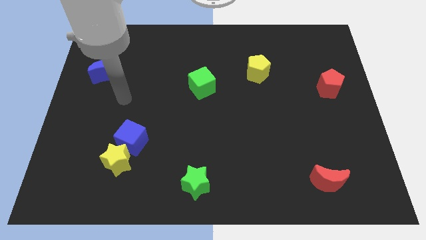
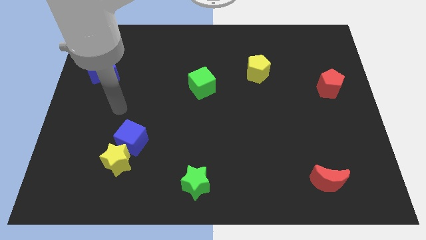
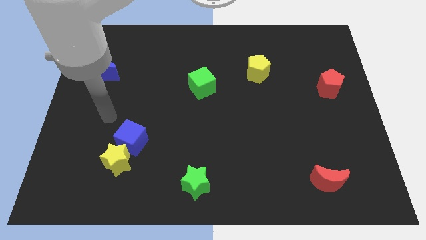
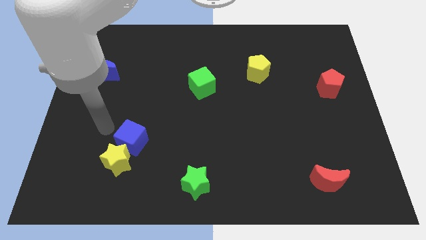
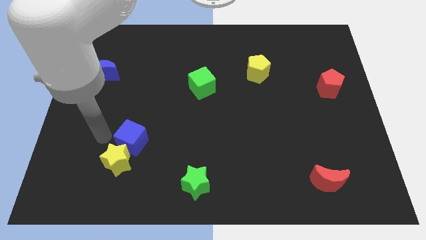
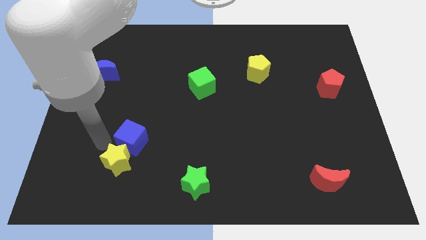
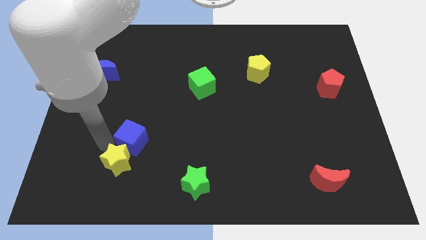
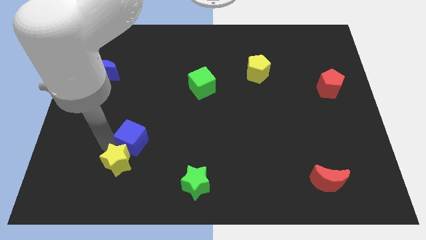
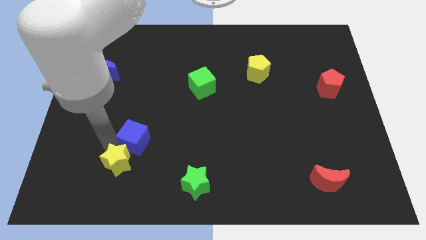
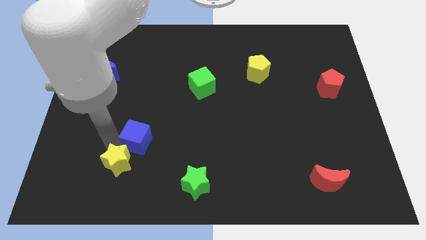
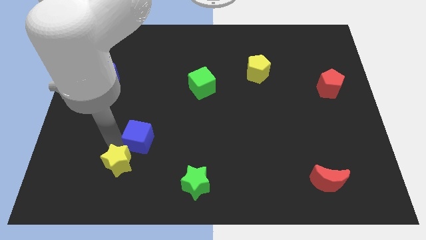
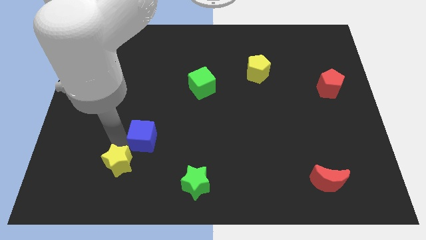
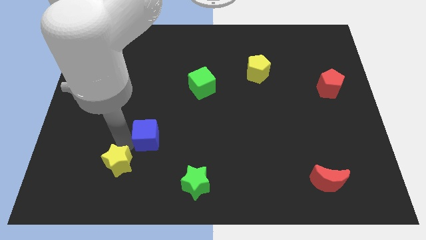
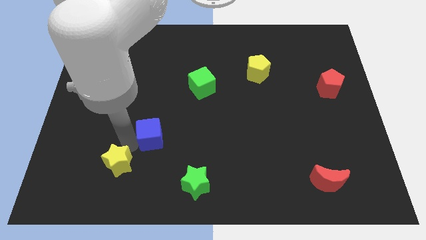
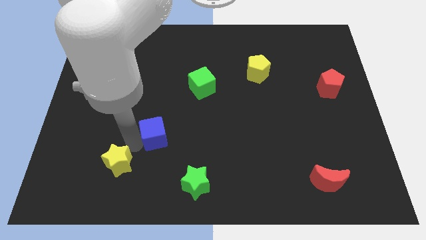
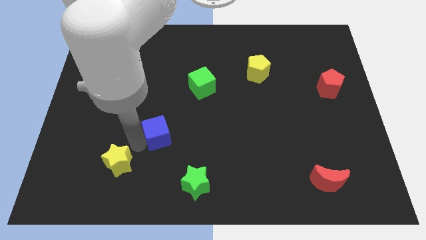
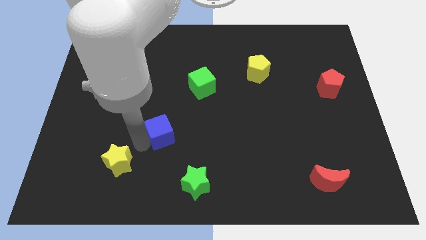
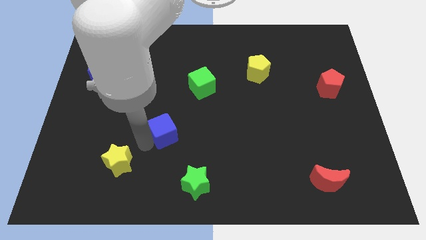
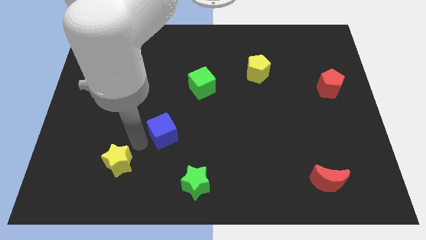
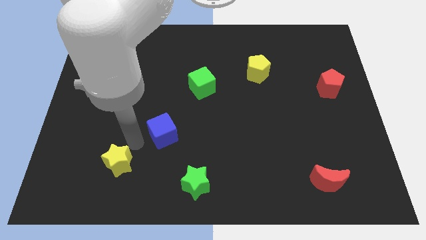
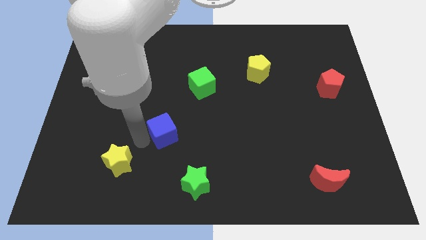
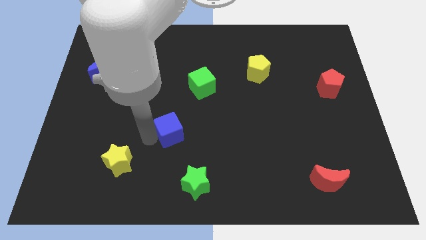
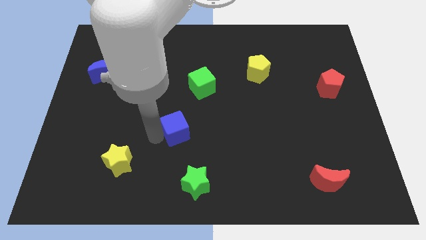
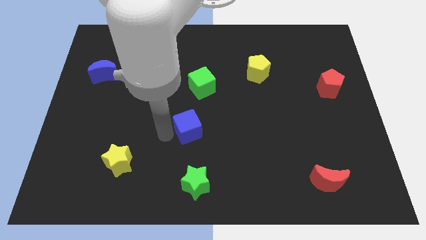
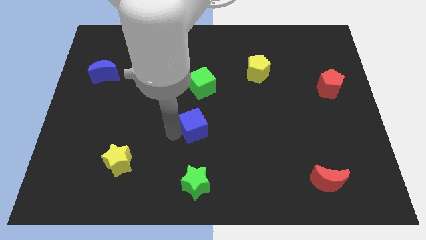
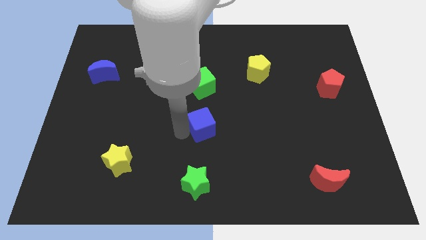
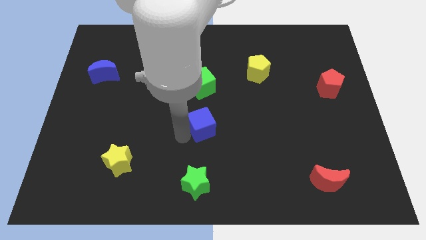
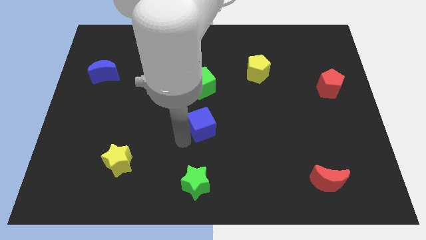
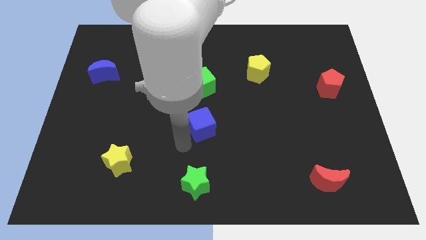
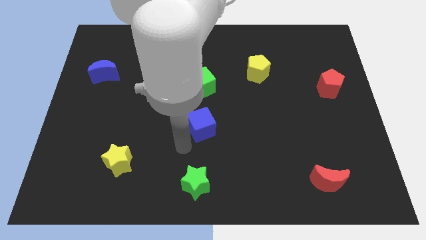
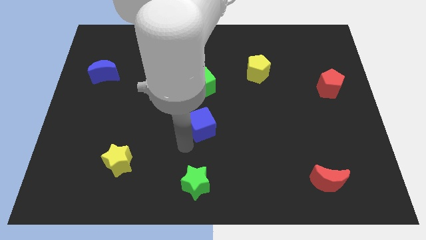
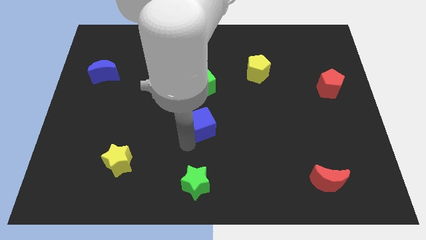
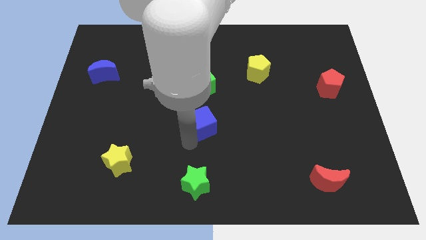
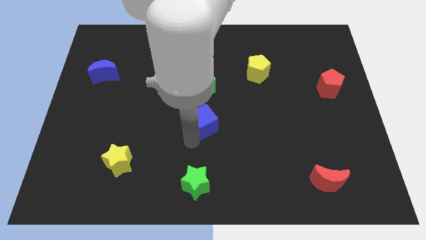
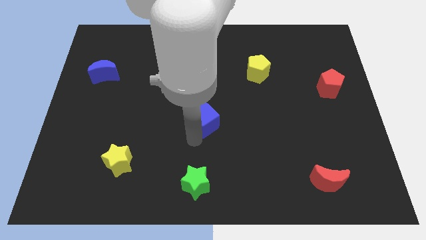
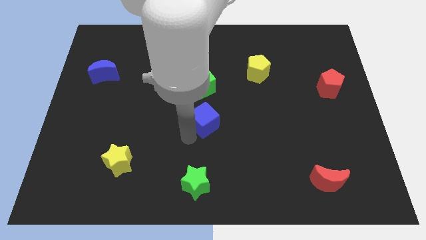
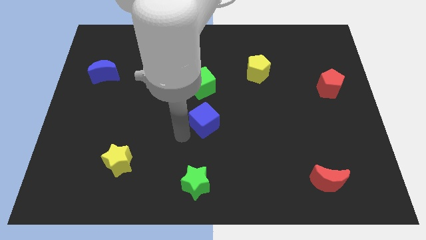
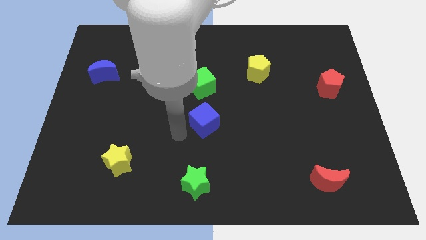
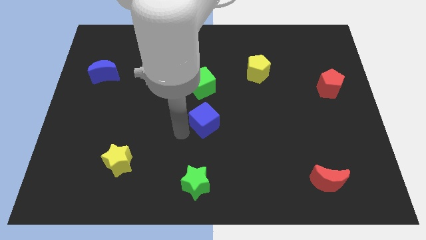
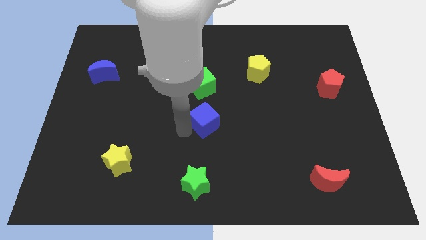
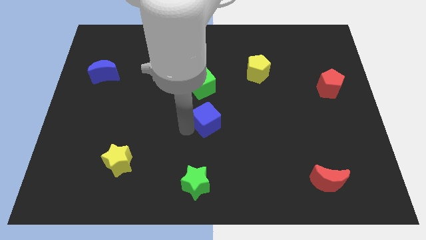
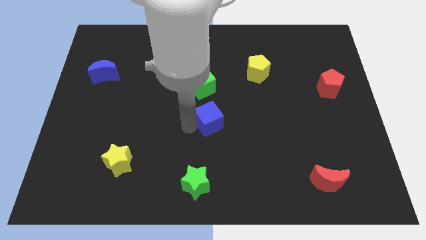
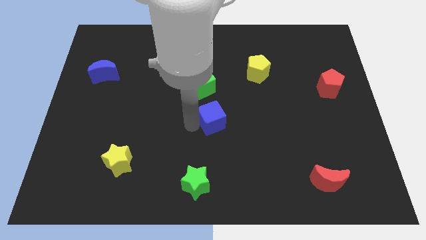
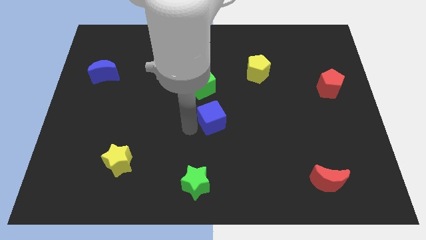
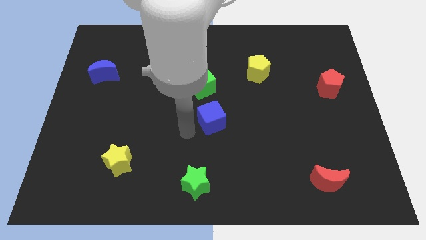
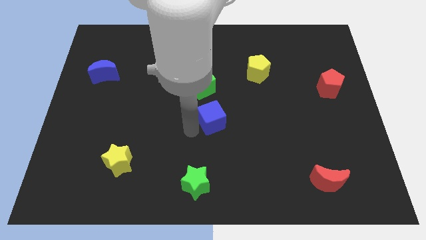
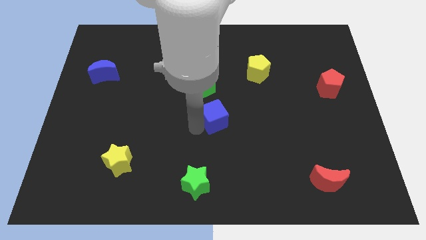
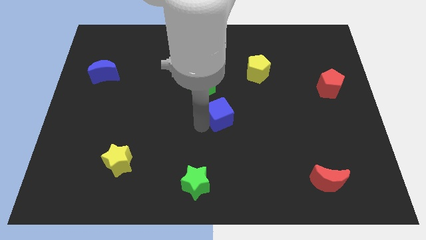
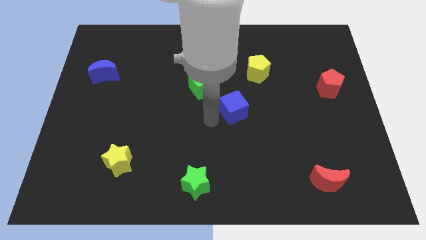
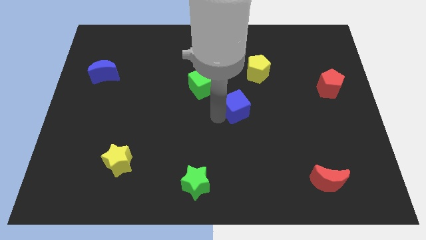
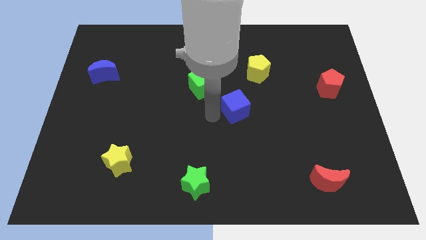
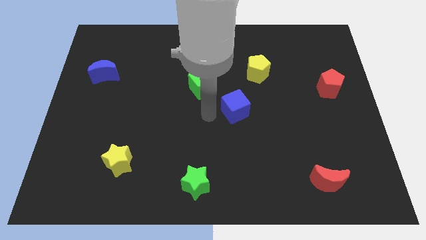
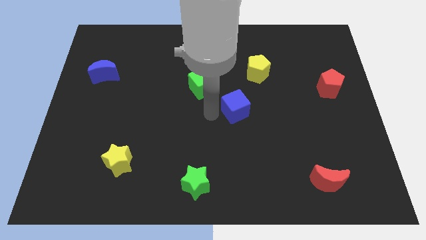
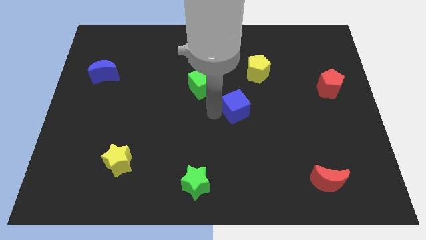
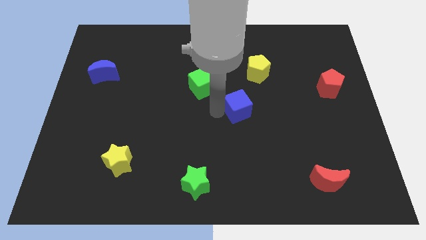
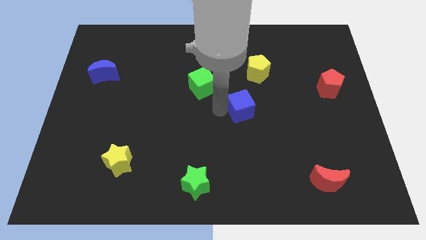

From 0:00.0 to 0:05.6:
move the blue cube to the bottom of the yellow pentagon

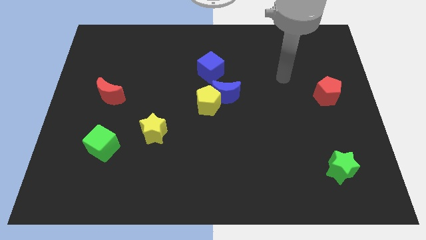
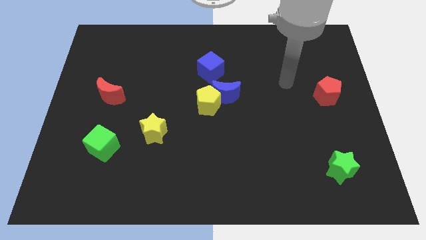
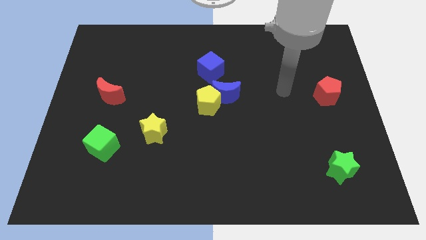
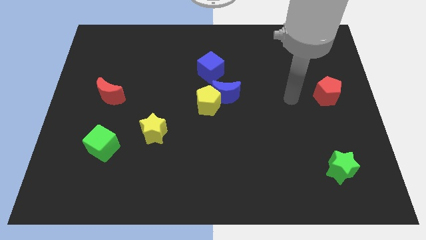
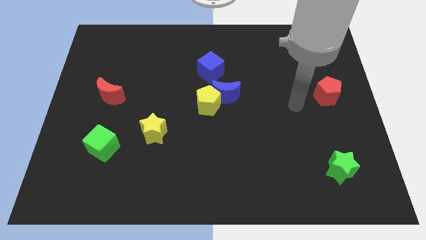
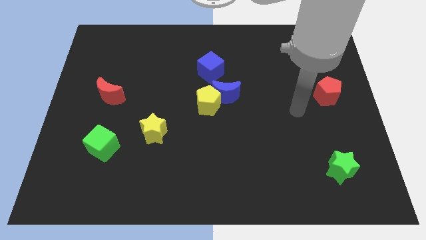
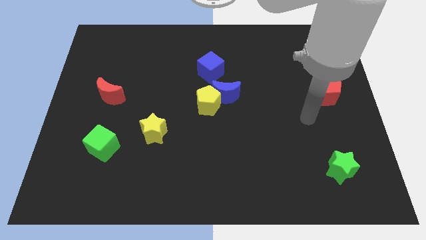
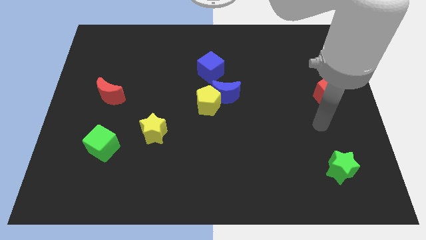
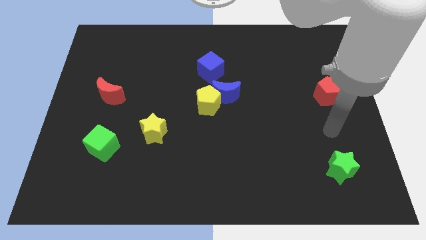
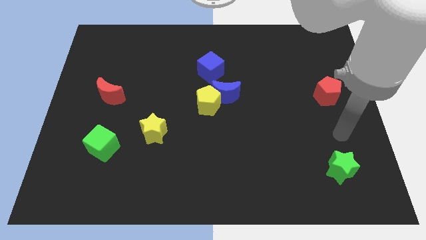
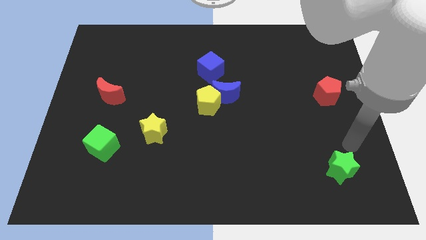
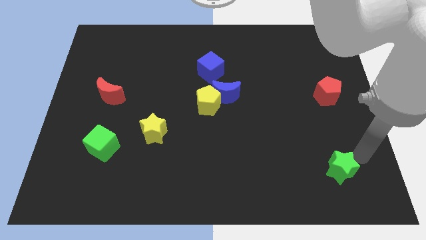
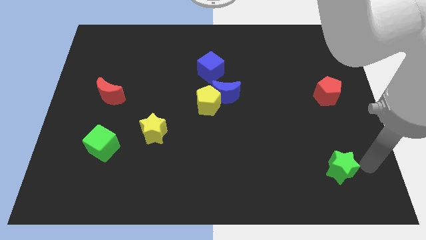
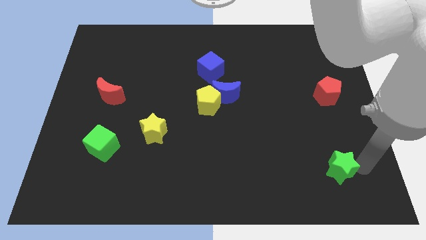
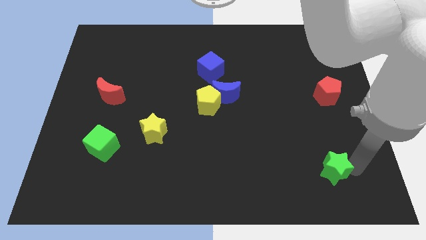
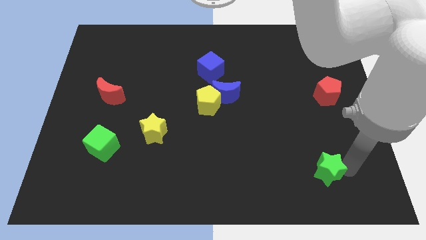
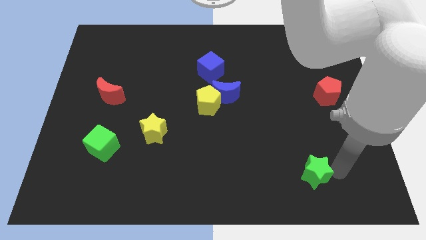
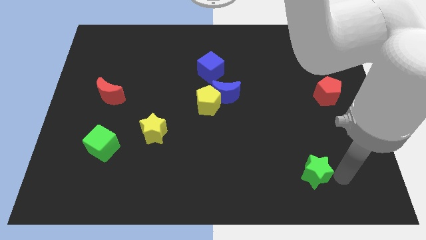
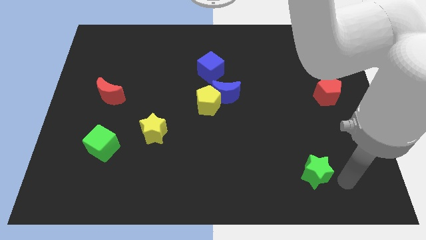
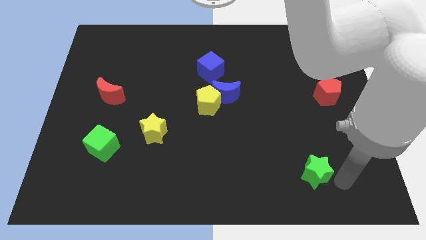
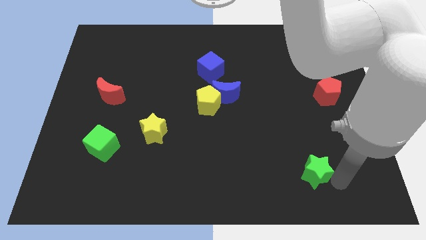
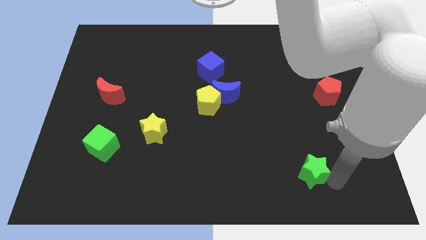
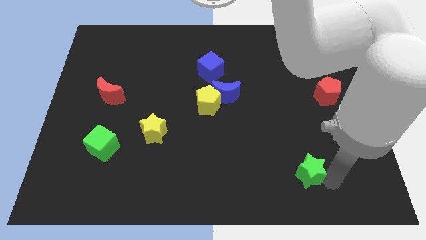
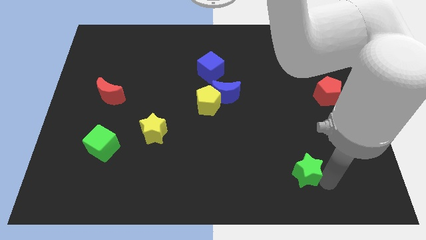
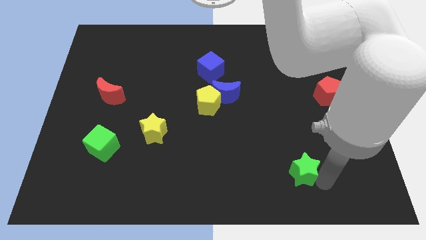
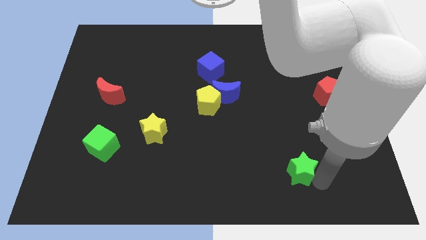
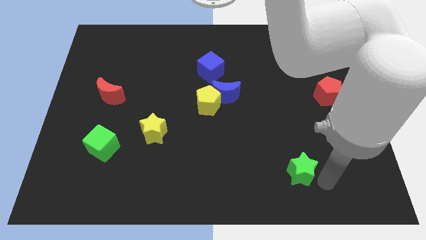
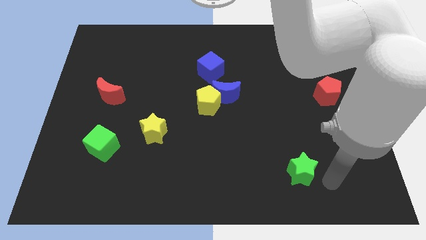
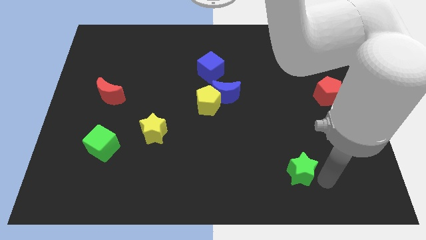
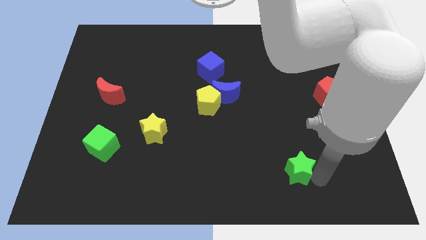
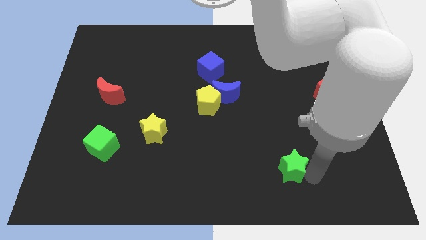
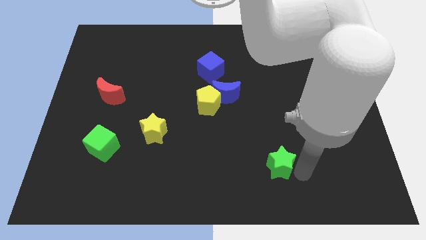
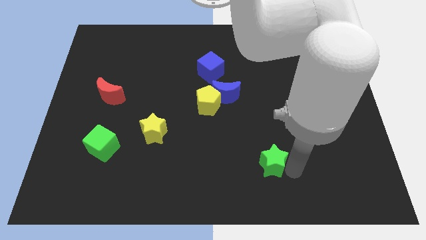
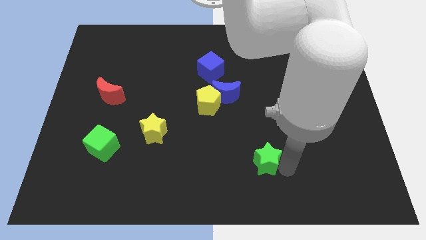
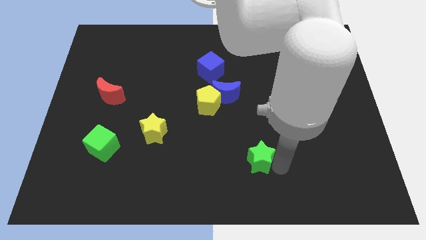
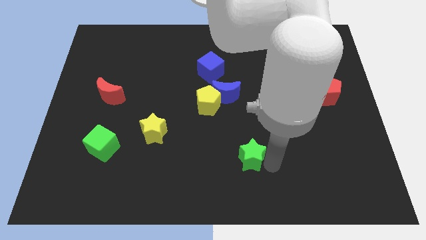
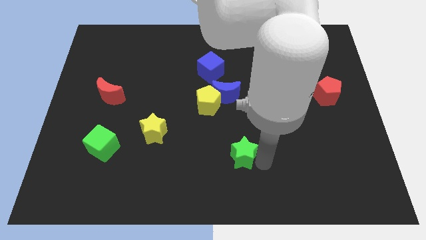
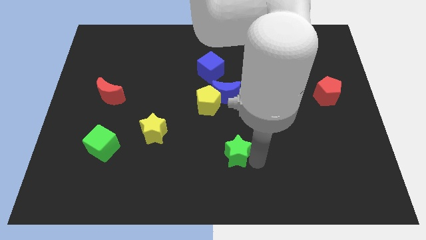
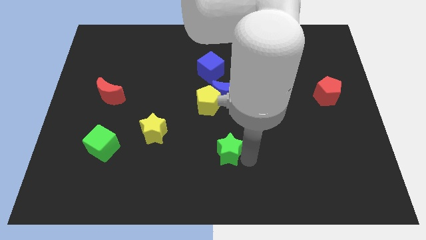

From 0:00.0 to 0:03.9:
push the green star to the bottom side of the yellow pentagon
